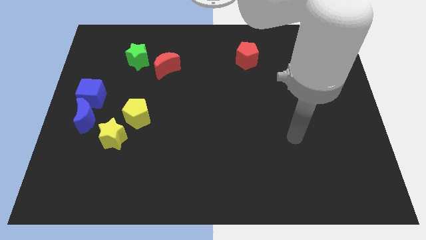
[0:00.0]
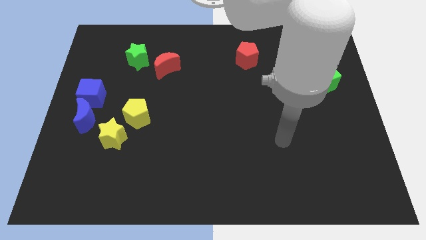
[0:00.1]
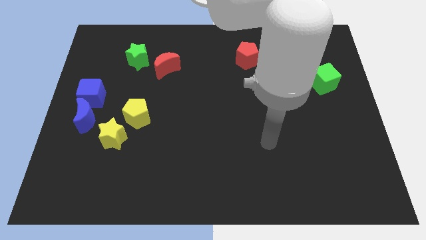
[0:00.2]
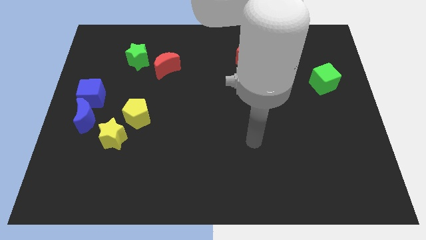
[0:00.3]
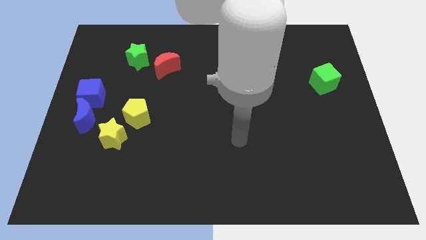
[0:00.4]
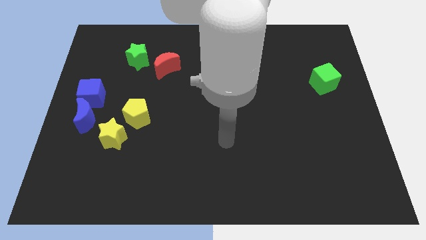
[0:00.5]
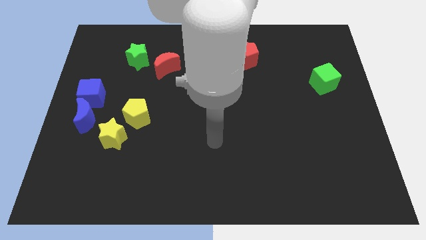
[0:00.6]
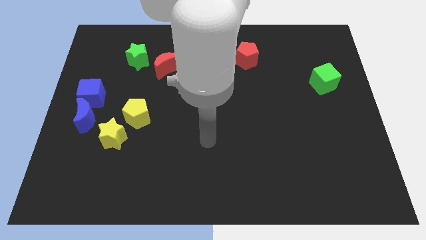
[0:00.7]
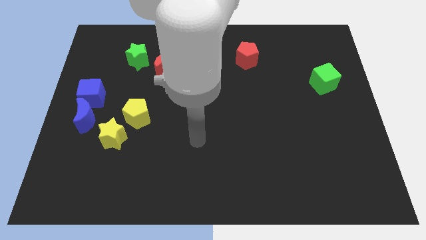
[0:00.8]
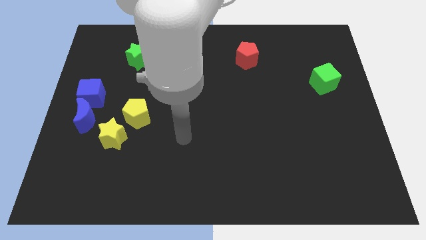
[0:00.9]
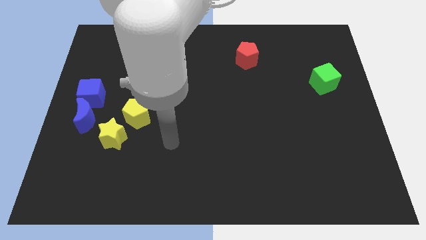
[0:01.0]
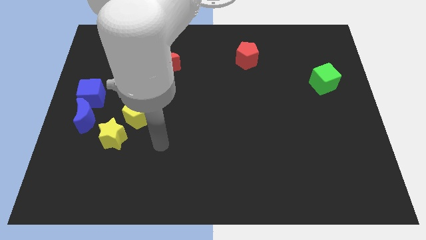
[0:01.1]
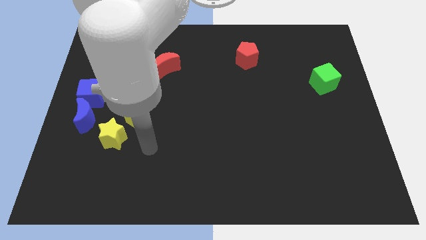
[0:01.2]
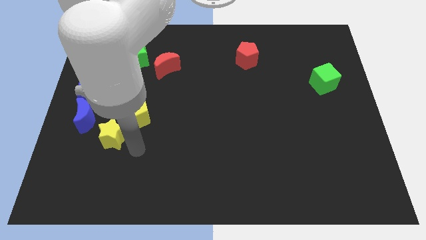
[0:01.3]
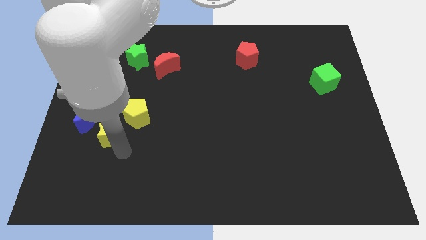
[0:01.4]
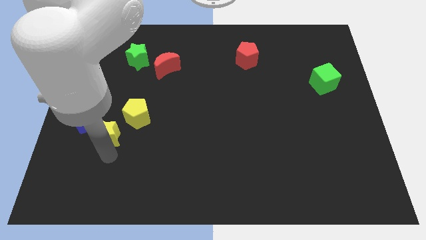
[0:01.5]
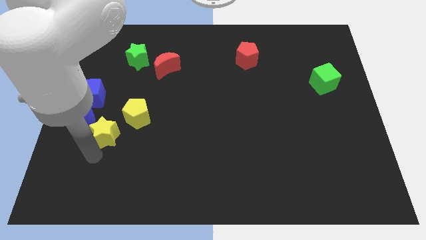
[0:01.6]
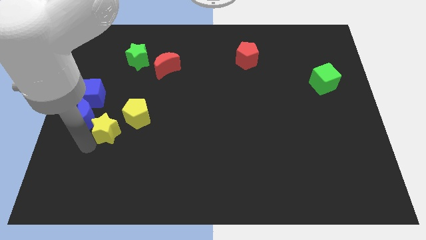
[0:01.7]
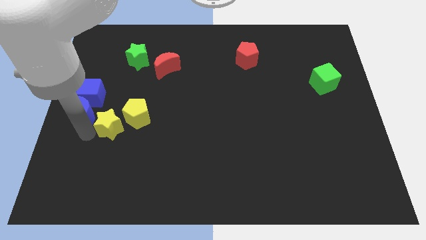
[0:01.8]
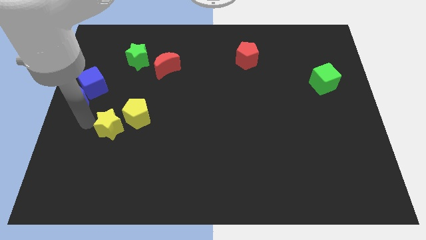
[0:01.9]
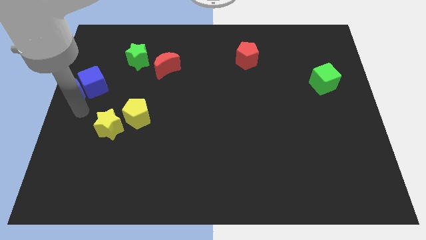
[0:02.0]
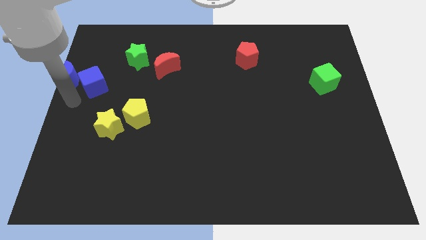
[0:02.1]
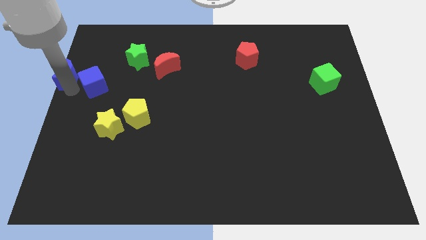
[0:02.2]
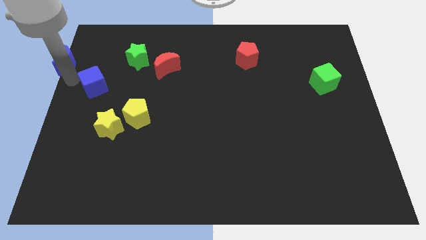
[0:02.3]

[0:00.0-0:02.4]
separate the blue cube from the blue moon

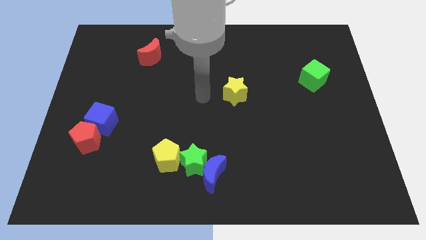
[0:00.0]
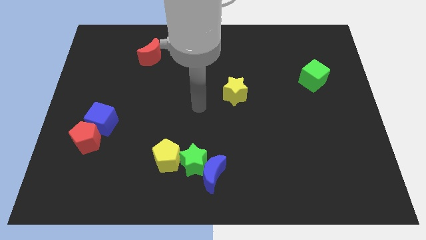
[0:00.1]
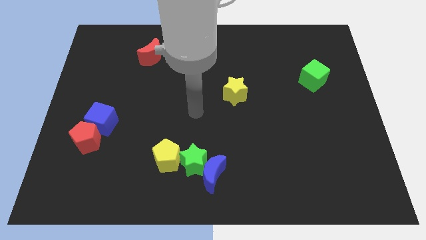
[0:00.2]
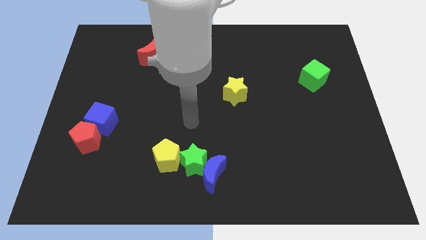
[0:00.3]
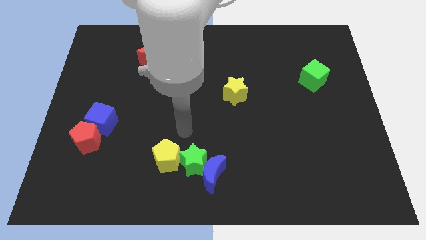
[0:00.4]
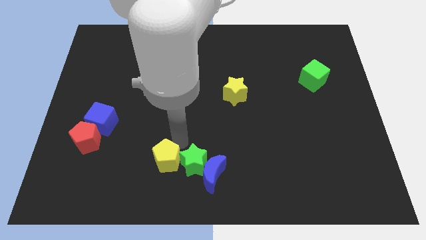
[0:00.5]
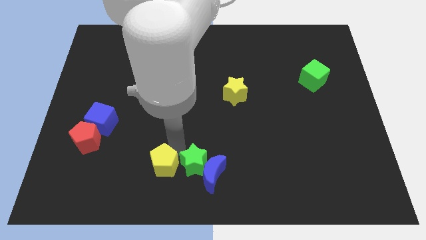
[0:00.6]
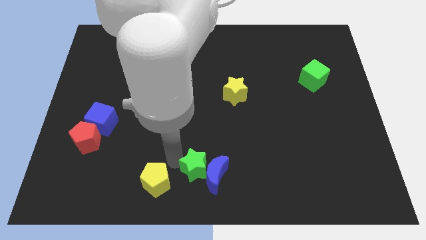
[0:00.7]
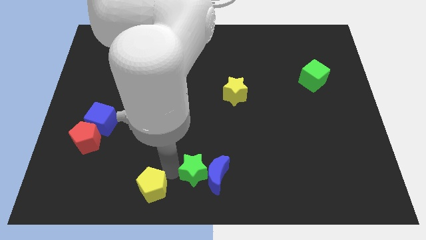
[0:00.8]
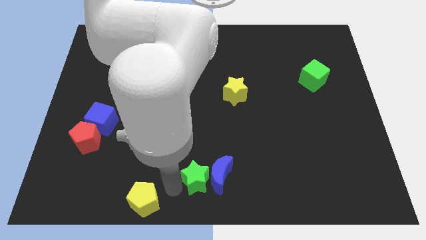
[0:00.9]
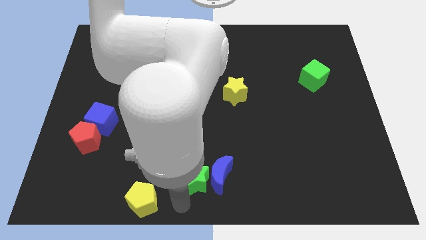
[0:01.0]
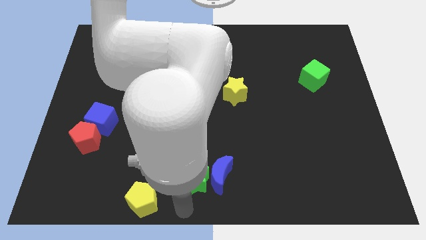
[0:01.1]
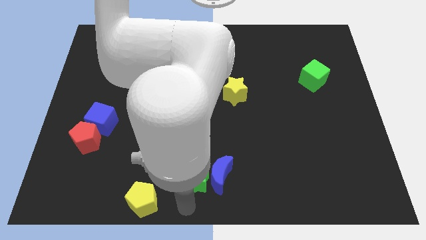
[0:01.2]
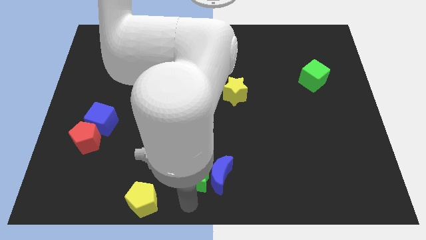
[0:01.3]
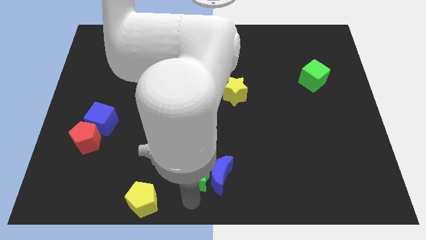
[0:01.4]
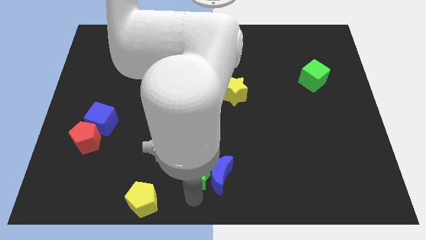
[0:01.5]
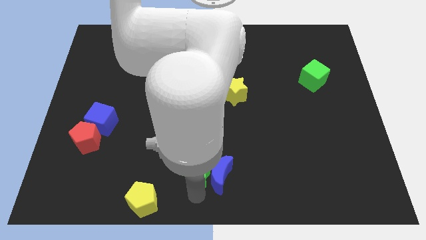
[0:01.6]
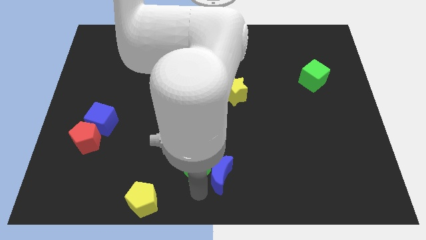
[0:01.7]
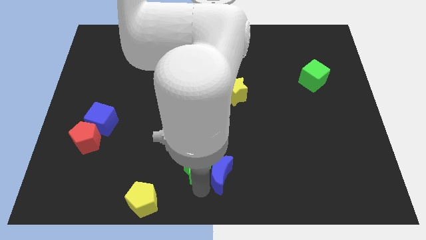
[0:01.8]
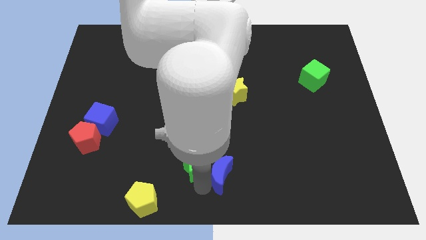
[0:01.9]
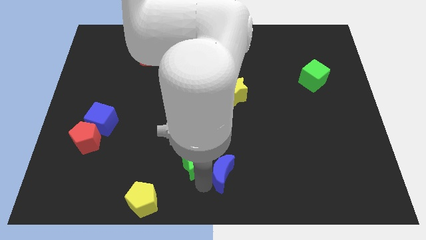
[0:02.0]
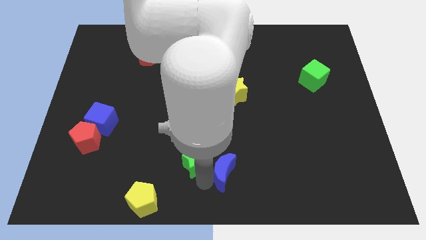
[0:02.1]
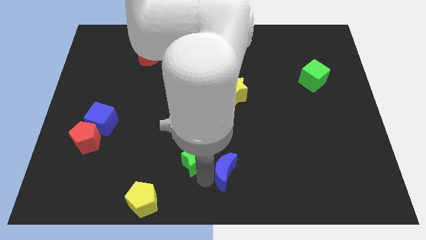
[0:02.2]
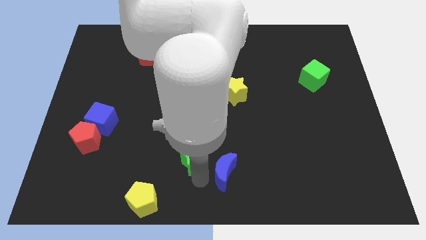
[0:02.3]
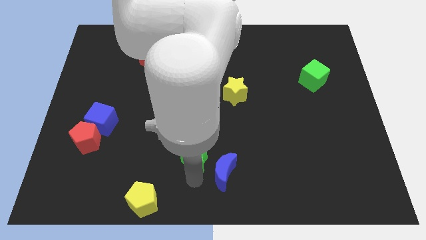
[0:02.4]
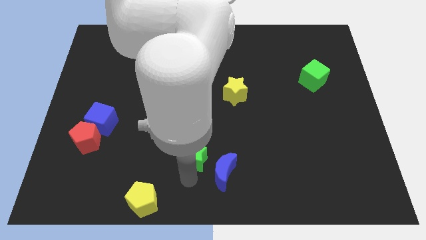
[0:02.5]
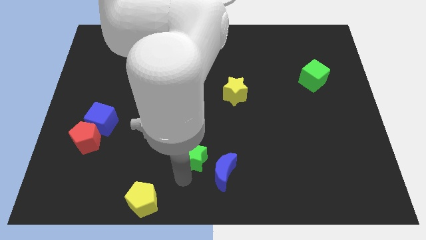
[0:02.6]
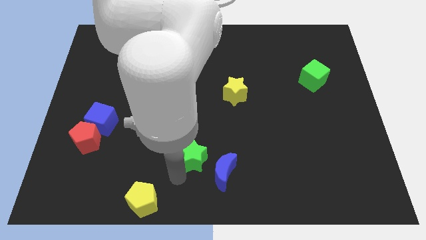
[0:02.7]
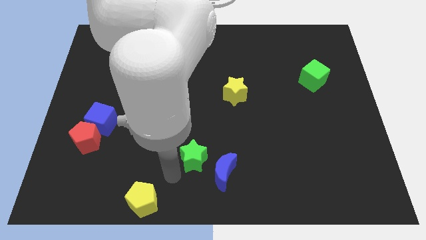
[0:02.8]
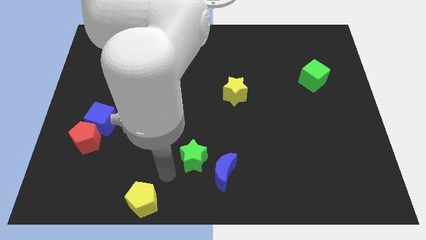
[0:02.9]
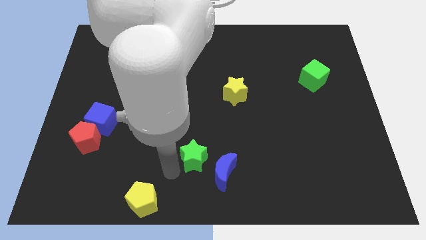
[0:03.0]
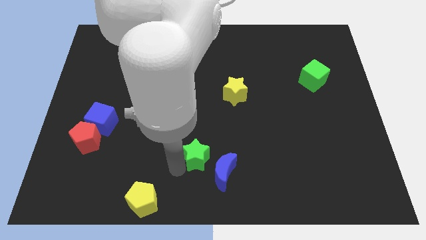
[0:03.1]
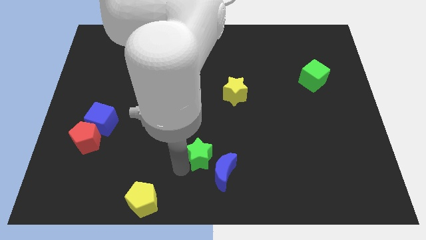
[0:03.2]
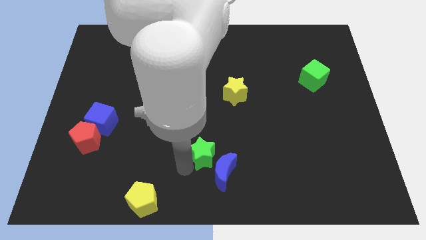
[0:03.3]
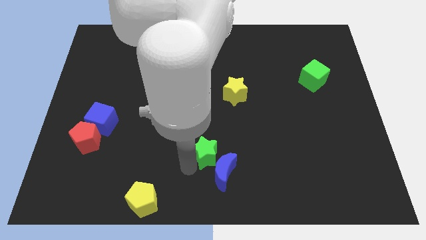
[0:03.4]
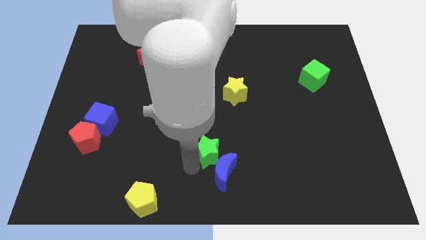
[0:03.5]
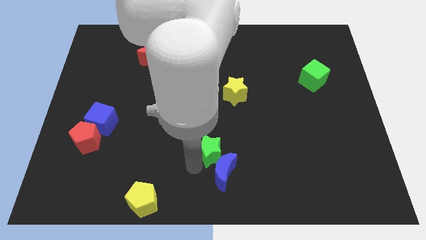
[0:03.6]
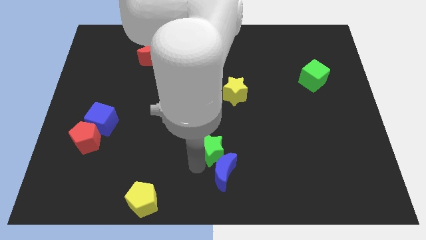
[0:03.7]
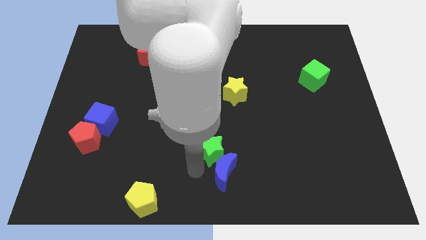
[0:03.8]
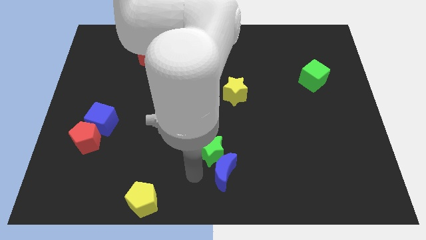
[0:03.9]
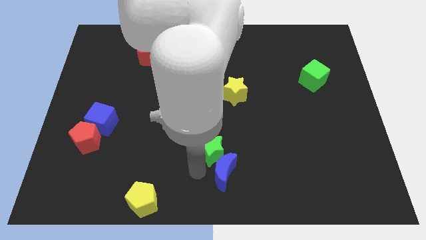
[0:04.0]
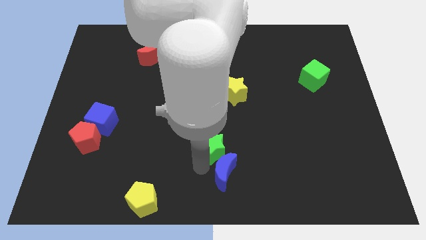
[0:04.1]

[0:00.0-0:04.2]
pull the green star apart from the blue moon and yellow pentagon

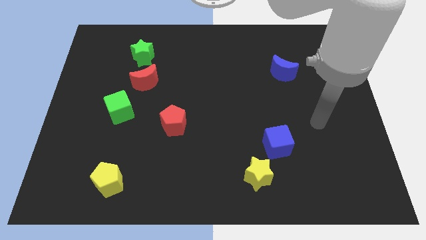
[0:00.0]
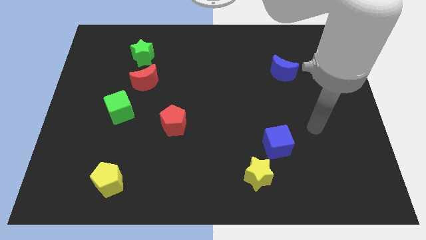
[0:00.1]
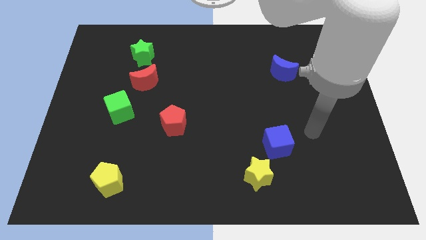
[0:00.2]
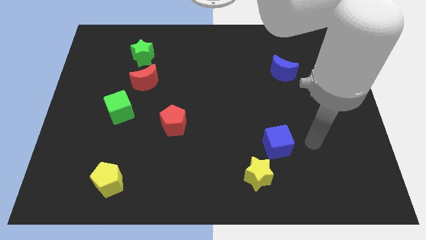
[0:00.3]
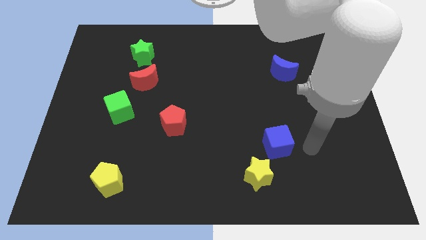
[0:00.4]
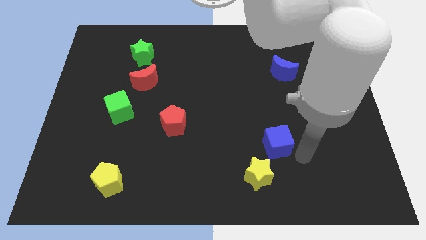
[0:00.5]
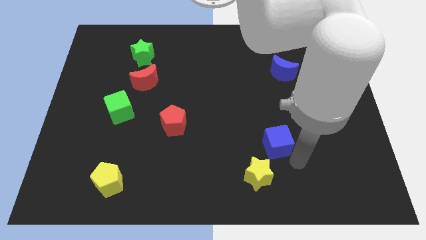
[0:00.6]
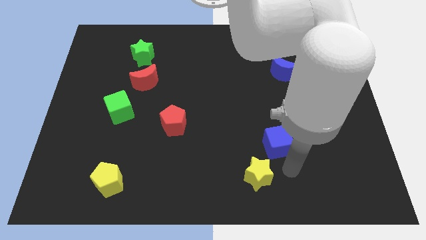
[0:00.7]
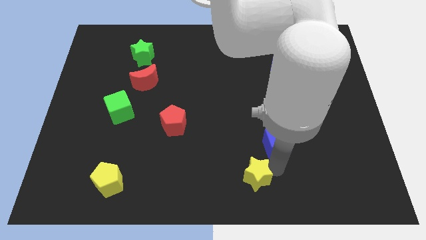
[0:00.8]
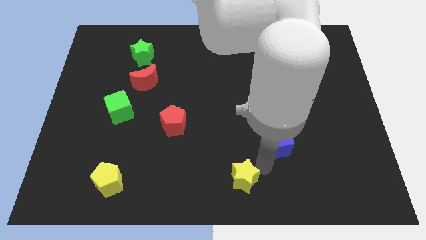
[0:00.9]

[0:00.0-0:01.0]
pull the blue cube apart from the yellow star

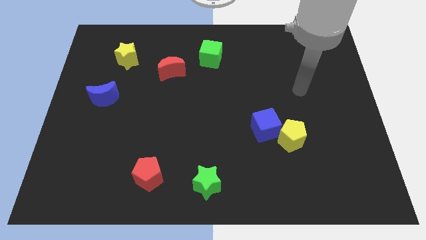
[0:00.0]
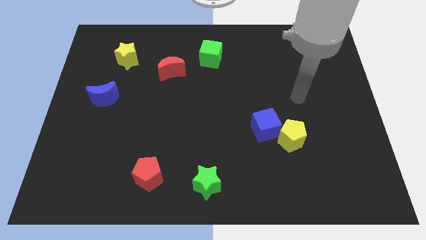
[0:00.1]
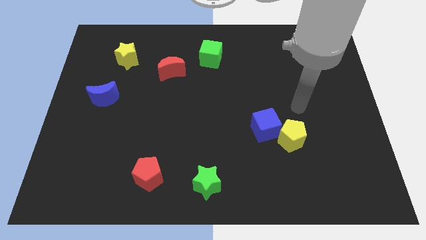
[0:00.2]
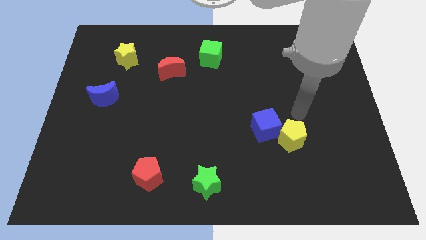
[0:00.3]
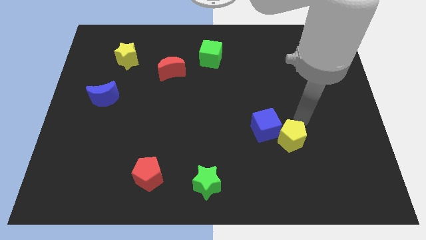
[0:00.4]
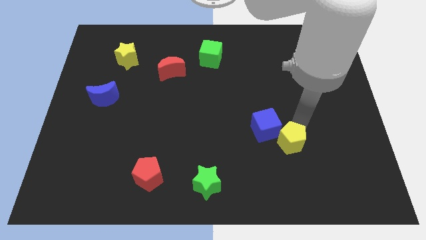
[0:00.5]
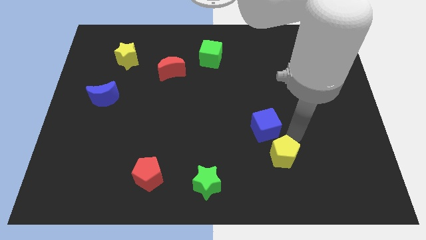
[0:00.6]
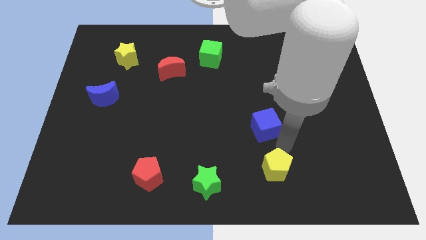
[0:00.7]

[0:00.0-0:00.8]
move the blue cube away from the yellow pentagon

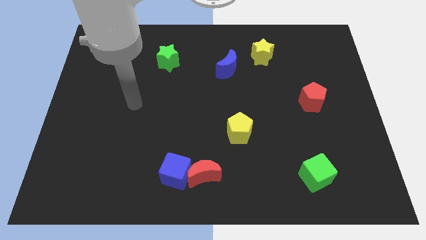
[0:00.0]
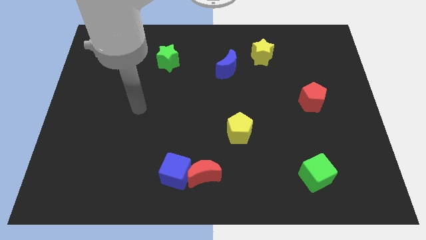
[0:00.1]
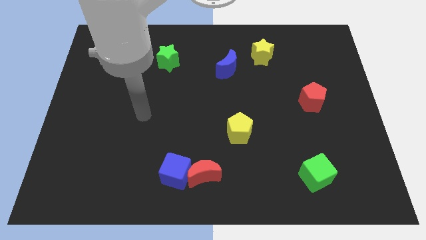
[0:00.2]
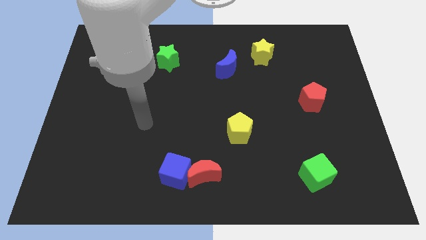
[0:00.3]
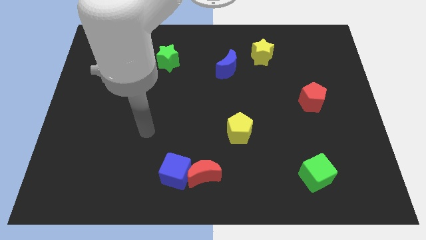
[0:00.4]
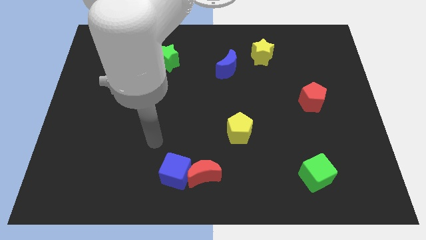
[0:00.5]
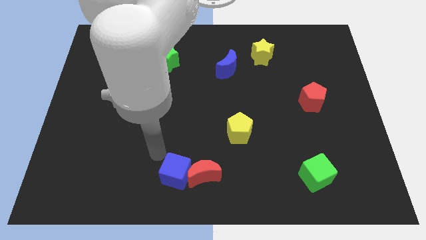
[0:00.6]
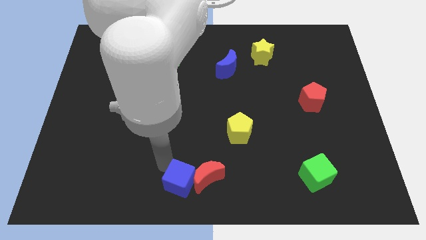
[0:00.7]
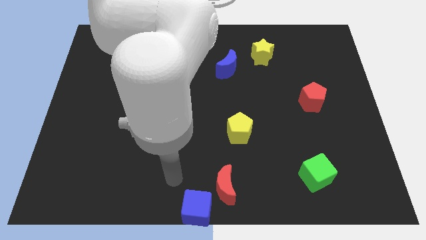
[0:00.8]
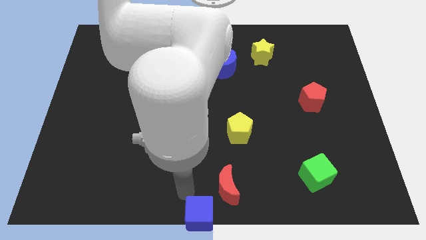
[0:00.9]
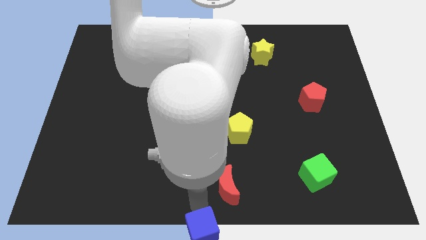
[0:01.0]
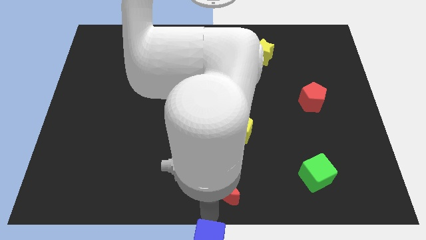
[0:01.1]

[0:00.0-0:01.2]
pull the red moon apart from the blue cube
